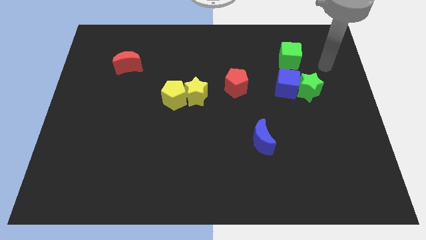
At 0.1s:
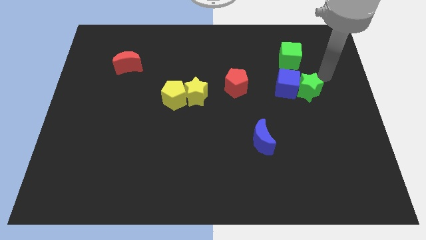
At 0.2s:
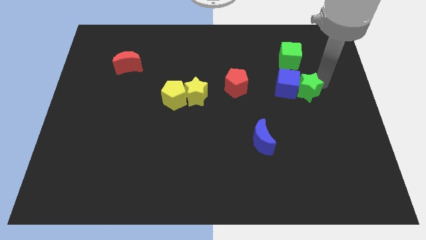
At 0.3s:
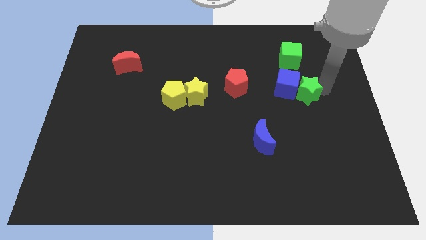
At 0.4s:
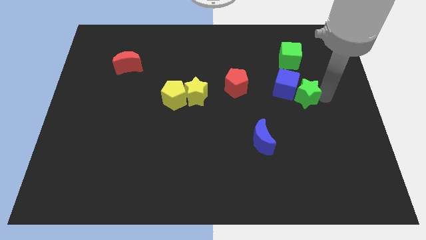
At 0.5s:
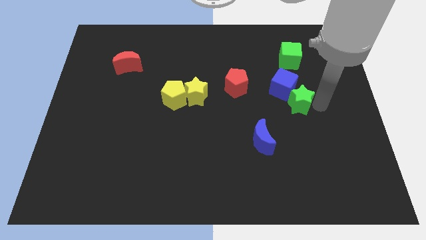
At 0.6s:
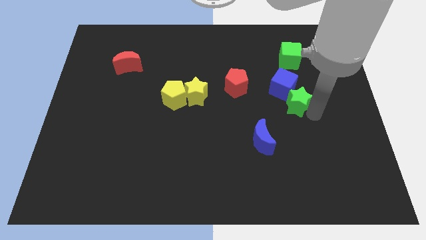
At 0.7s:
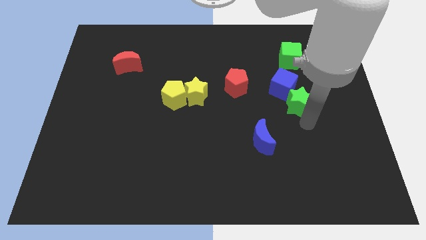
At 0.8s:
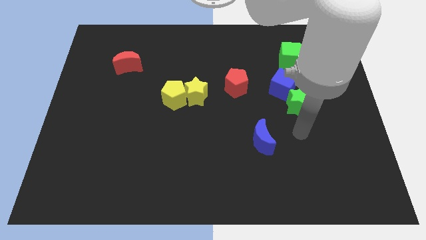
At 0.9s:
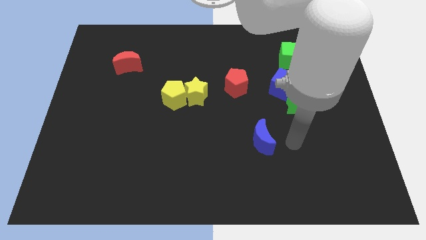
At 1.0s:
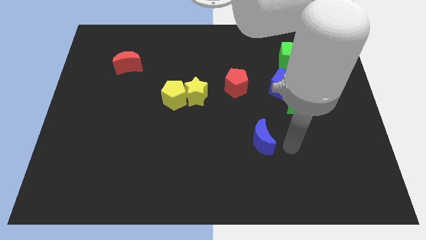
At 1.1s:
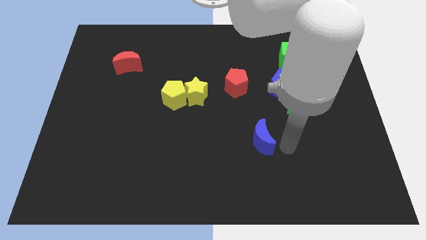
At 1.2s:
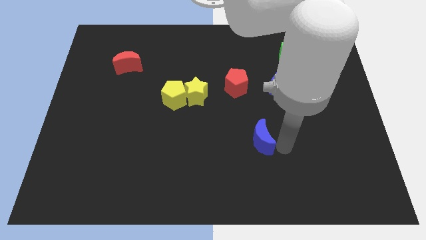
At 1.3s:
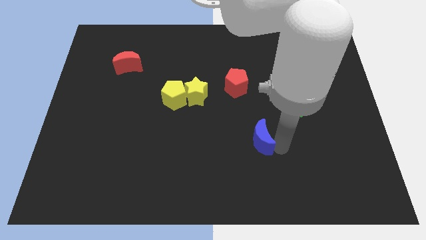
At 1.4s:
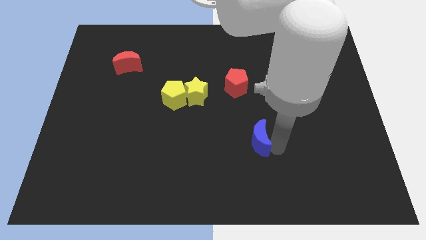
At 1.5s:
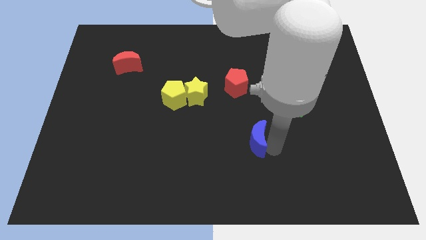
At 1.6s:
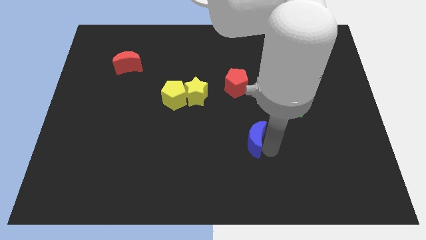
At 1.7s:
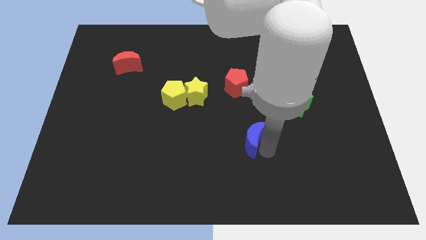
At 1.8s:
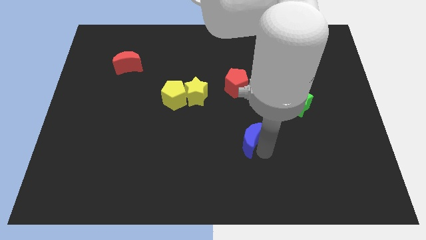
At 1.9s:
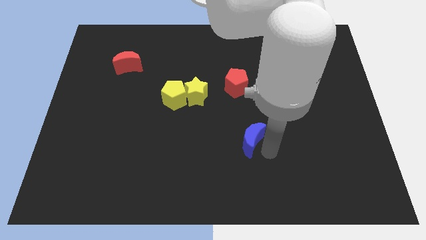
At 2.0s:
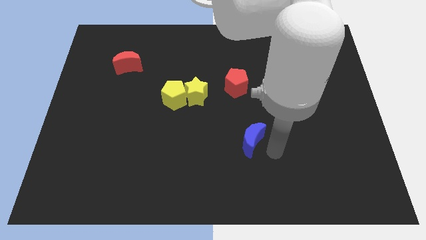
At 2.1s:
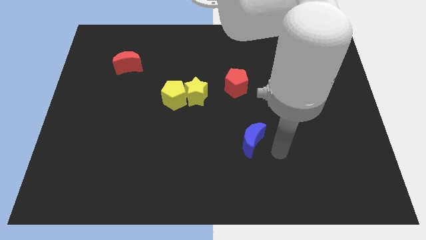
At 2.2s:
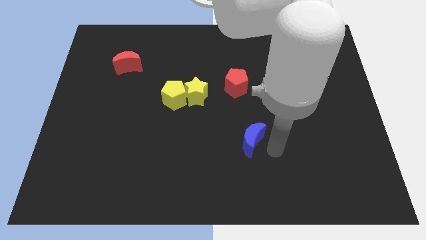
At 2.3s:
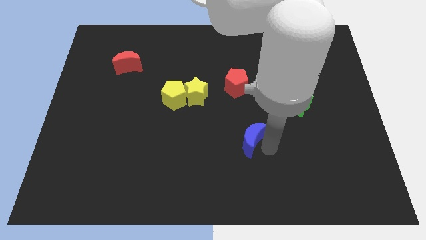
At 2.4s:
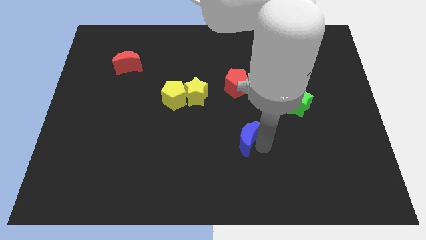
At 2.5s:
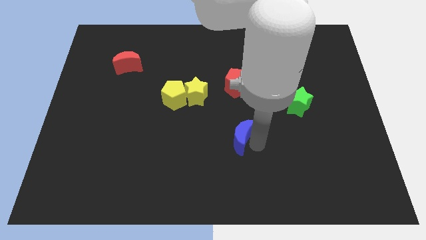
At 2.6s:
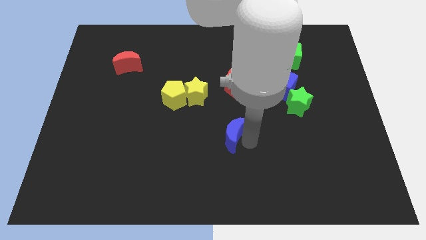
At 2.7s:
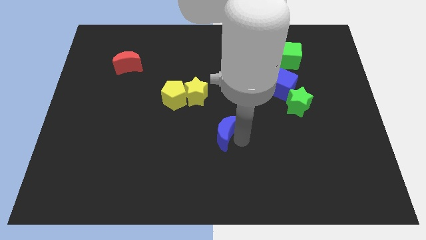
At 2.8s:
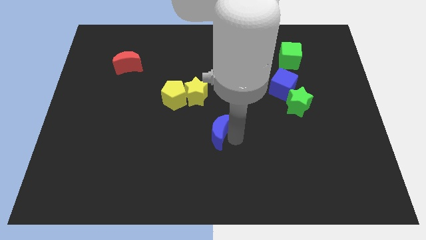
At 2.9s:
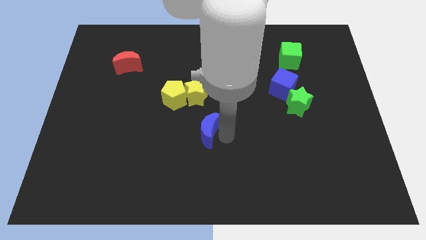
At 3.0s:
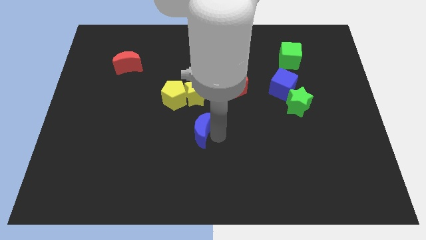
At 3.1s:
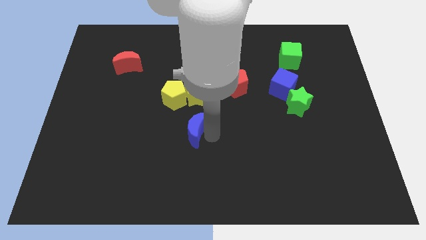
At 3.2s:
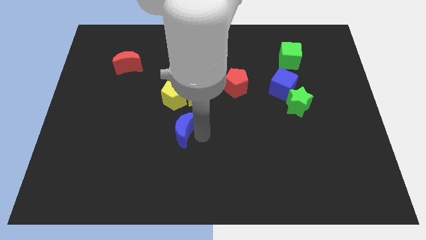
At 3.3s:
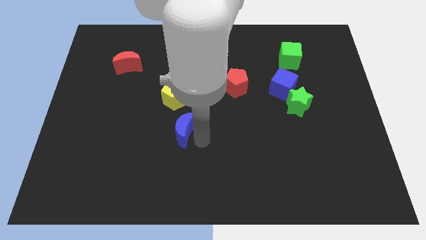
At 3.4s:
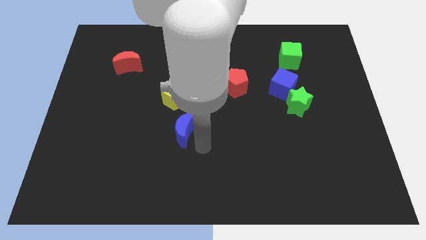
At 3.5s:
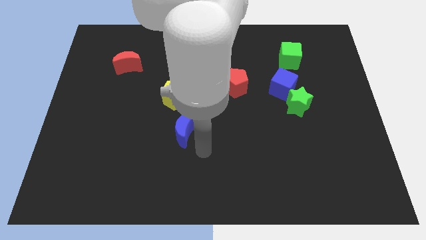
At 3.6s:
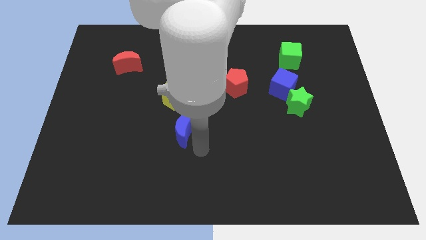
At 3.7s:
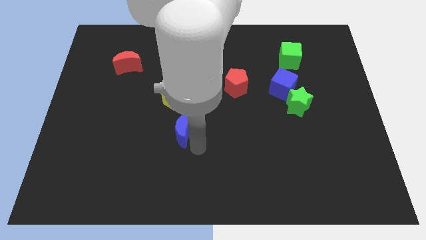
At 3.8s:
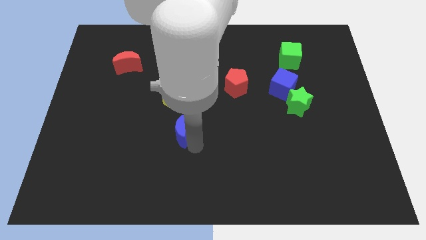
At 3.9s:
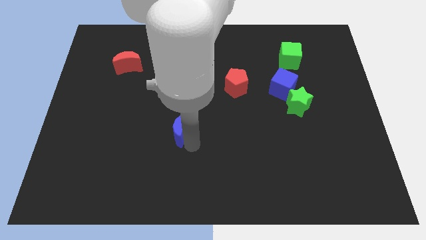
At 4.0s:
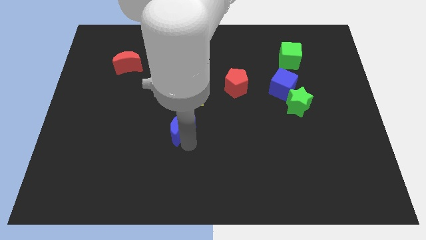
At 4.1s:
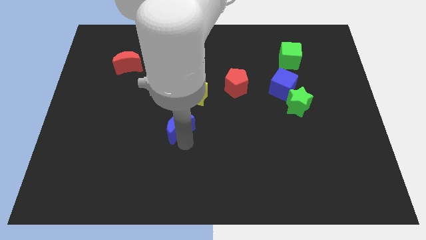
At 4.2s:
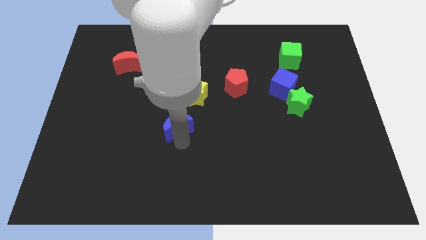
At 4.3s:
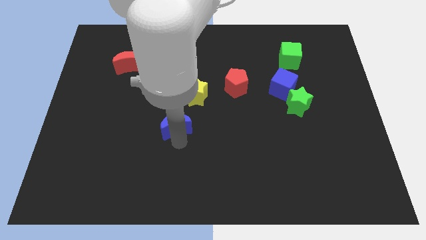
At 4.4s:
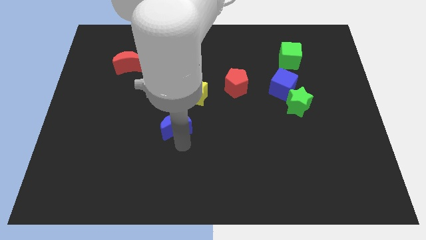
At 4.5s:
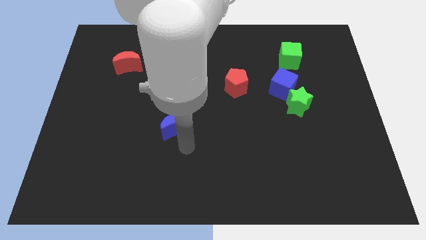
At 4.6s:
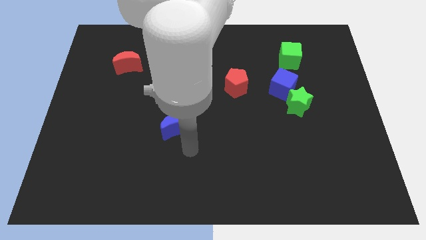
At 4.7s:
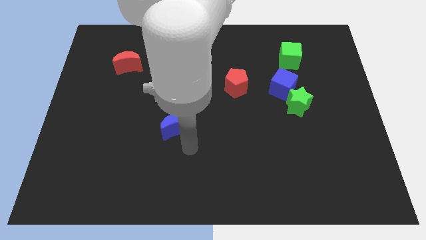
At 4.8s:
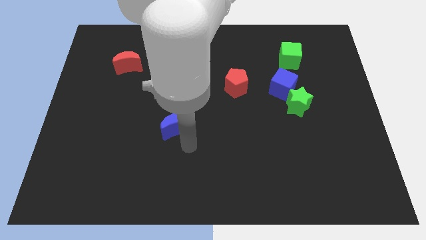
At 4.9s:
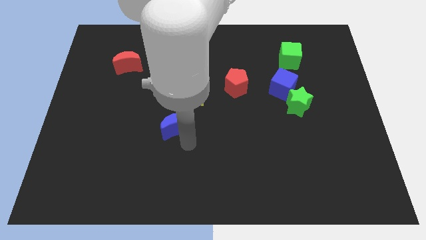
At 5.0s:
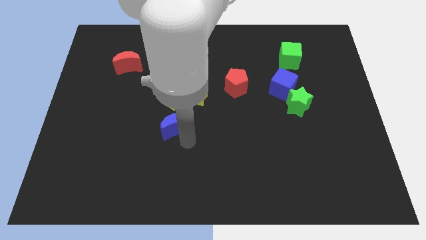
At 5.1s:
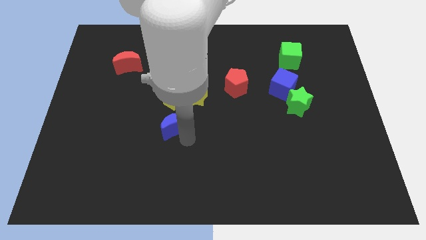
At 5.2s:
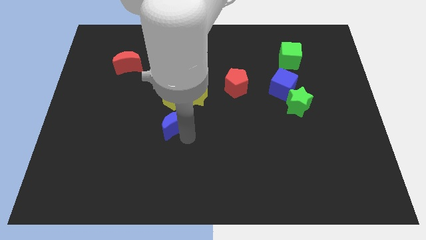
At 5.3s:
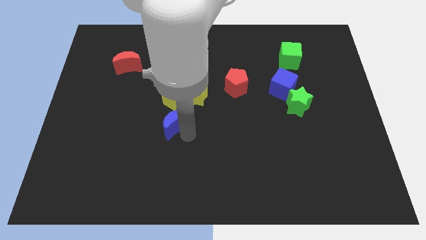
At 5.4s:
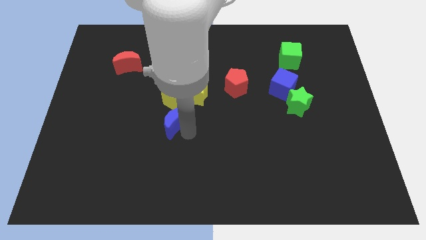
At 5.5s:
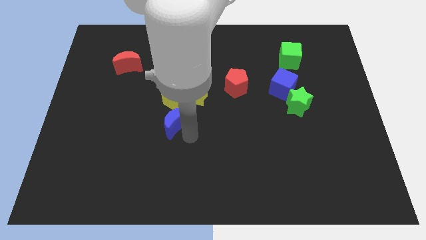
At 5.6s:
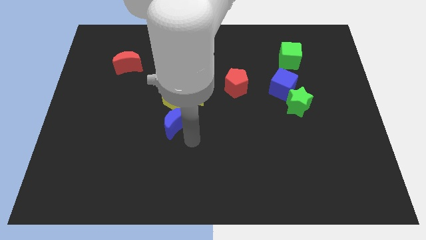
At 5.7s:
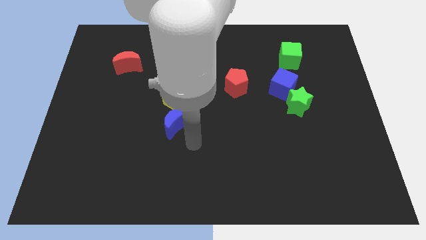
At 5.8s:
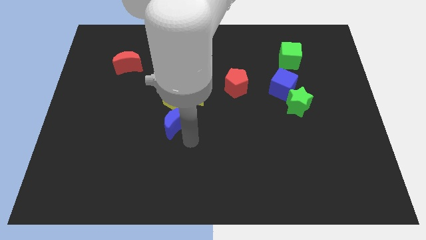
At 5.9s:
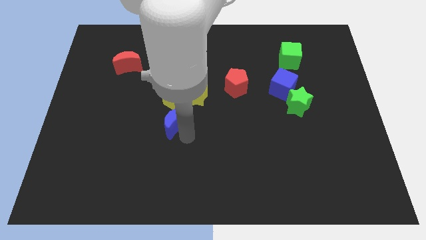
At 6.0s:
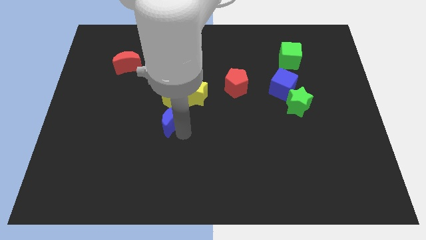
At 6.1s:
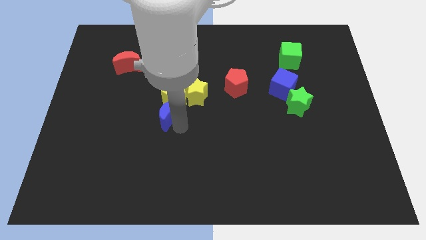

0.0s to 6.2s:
move the blue moon diagonally down and to the left of the yellow pentagon

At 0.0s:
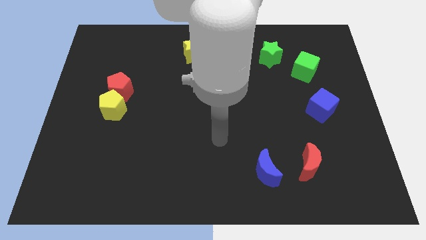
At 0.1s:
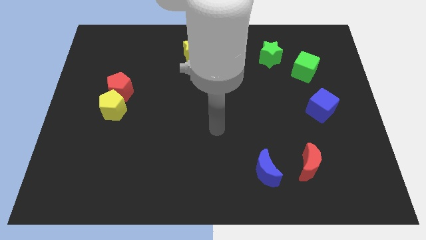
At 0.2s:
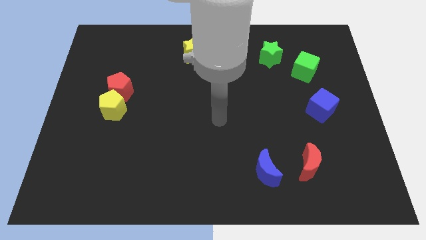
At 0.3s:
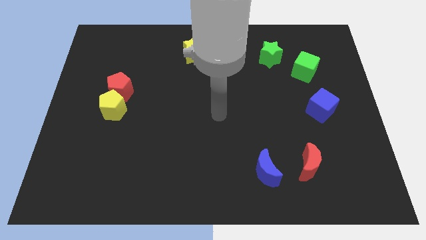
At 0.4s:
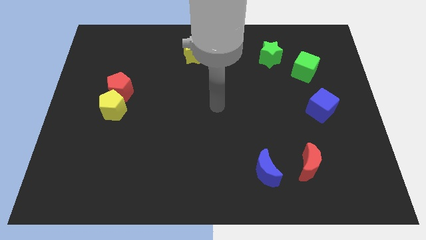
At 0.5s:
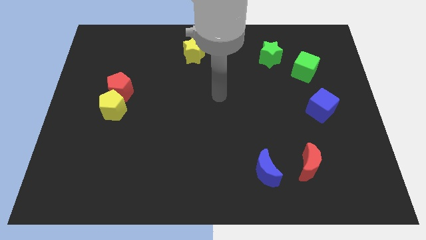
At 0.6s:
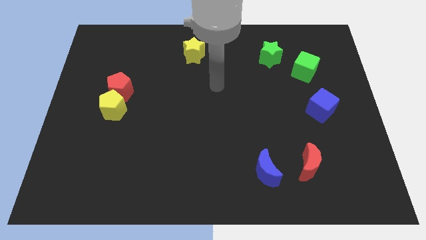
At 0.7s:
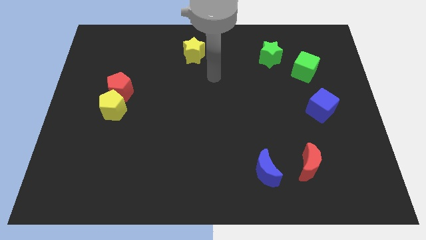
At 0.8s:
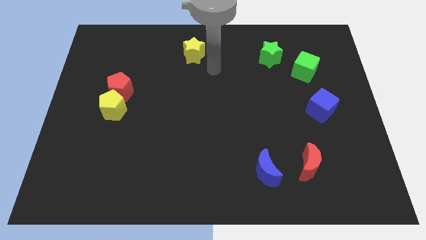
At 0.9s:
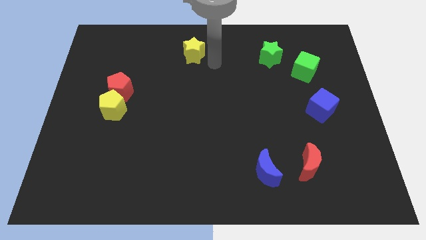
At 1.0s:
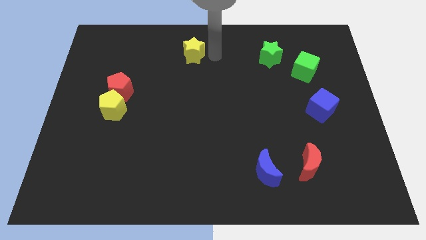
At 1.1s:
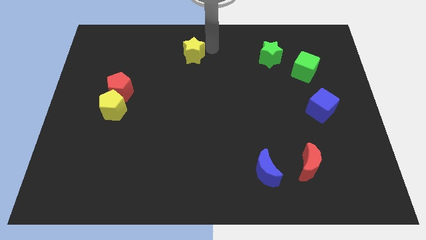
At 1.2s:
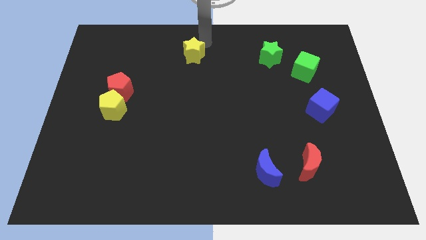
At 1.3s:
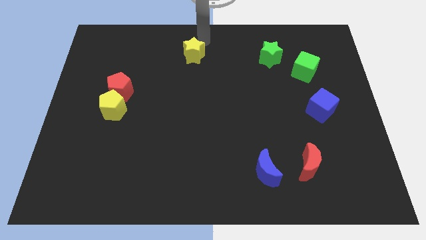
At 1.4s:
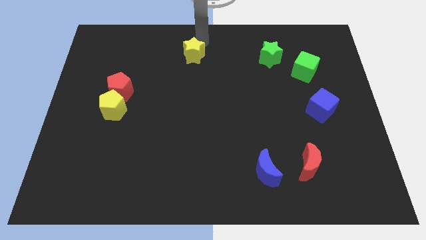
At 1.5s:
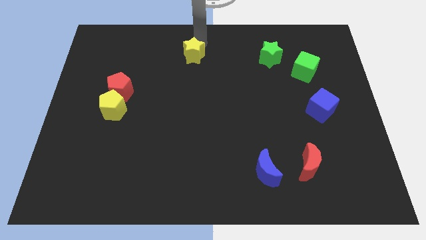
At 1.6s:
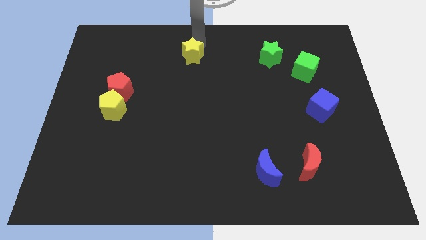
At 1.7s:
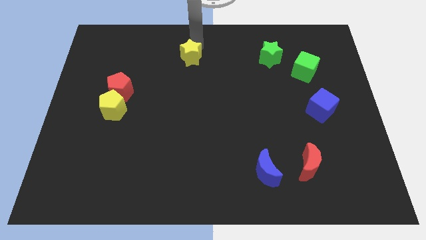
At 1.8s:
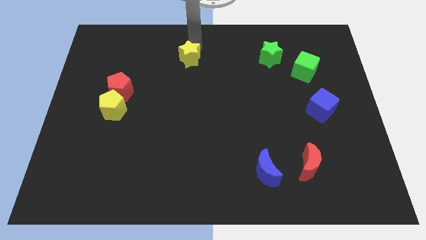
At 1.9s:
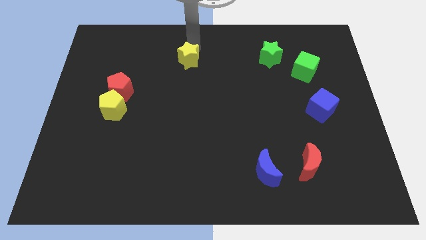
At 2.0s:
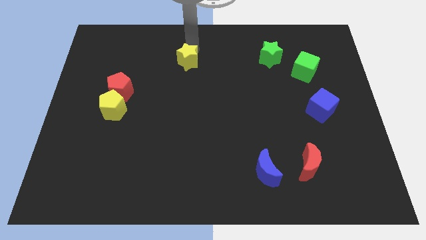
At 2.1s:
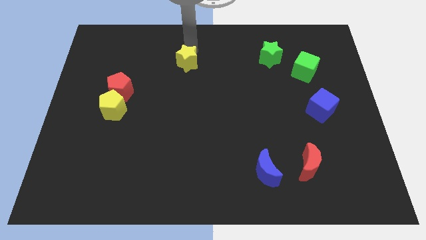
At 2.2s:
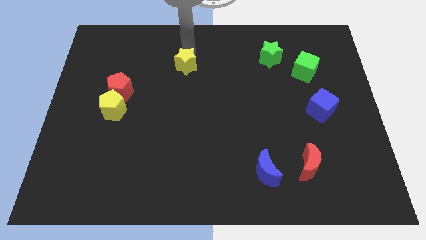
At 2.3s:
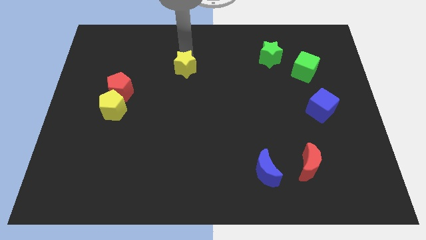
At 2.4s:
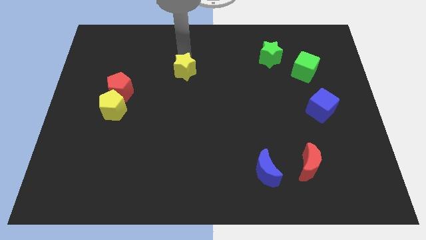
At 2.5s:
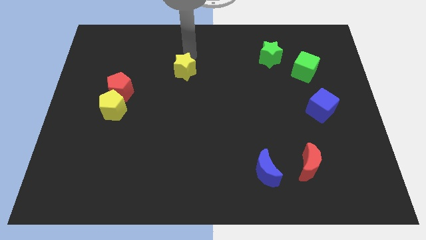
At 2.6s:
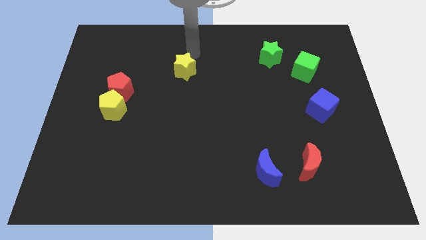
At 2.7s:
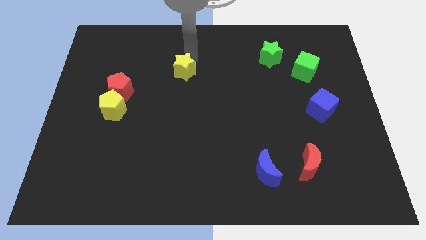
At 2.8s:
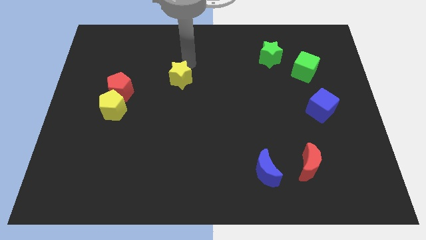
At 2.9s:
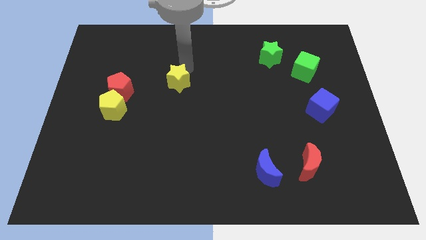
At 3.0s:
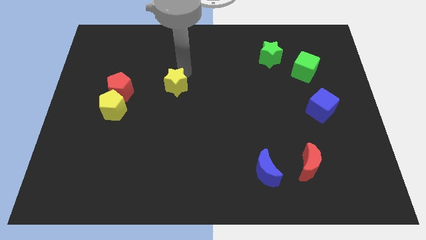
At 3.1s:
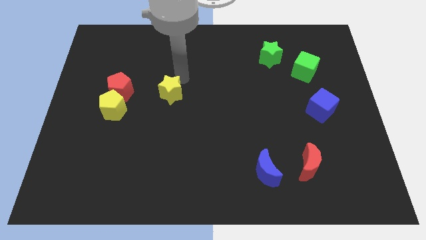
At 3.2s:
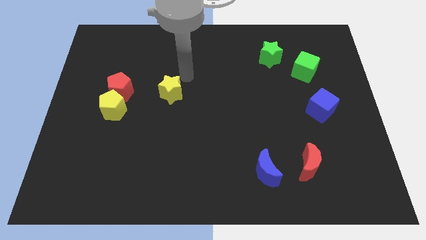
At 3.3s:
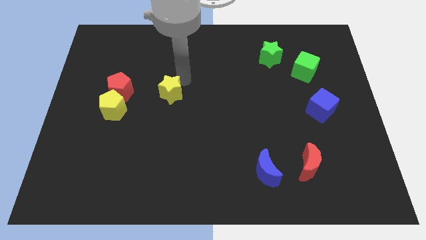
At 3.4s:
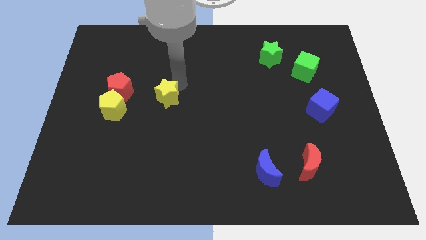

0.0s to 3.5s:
move the yellow star to the right side of the yellow pentagon
